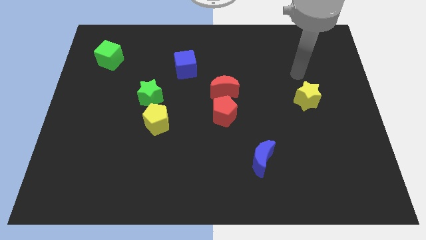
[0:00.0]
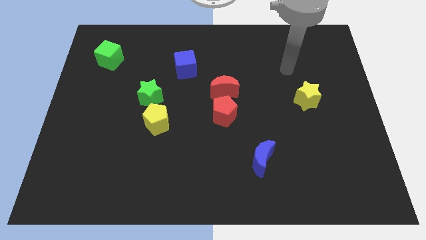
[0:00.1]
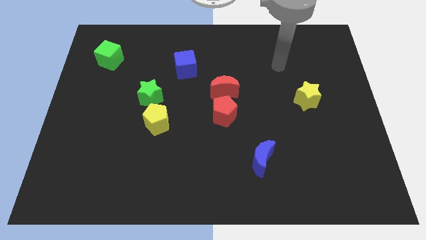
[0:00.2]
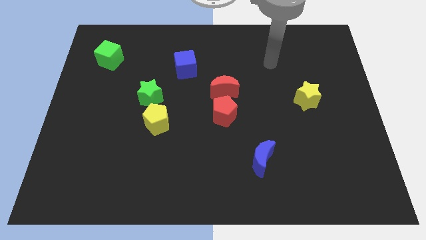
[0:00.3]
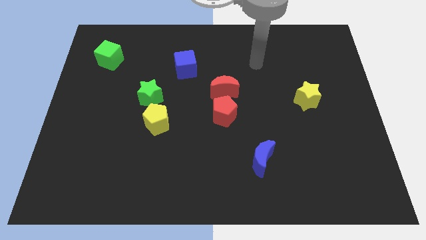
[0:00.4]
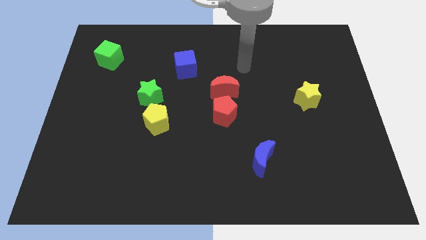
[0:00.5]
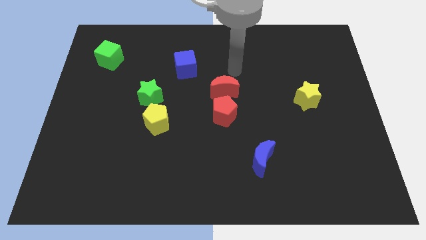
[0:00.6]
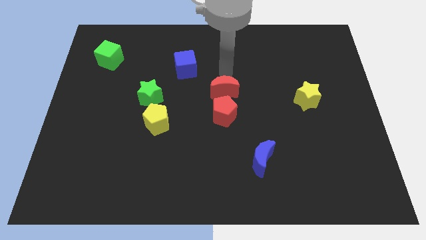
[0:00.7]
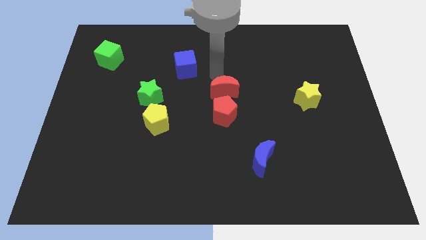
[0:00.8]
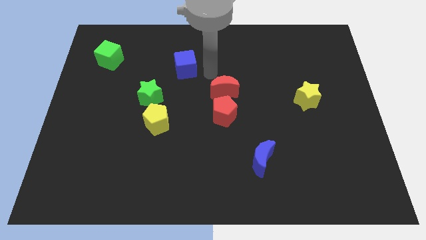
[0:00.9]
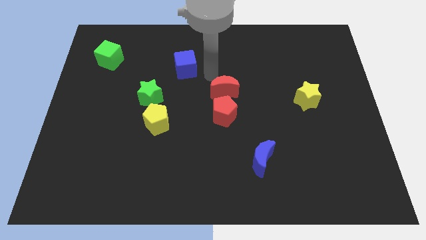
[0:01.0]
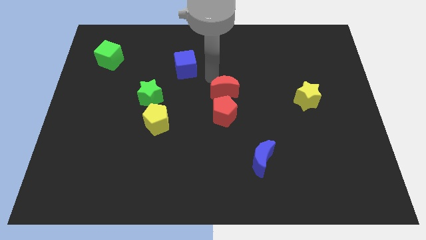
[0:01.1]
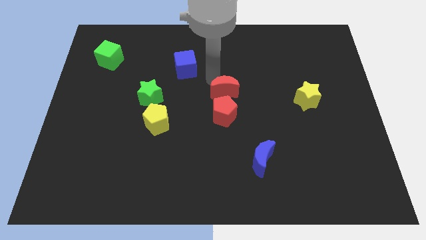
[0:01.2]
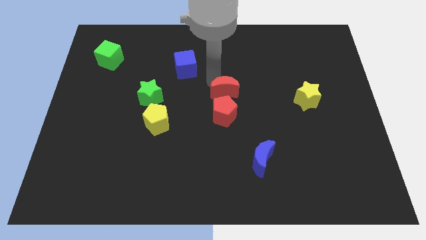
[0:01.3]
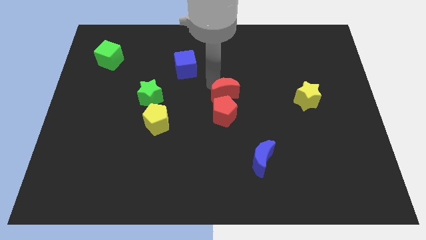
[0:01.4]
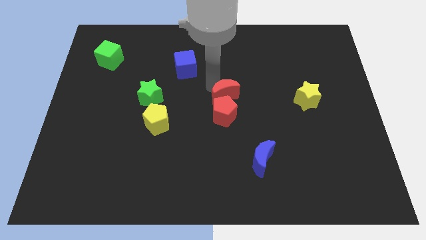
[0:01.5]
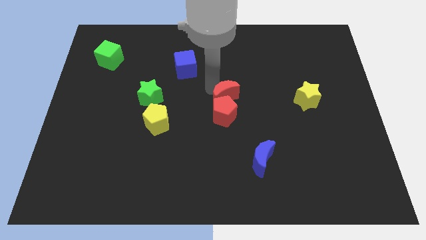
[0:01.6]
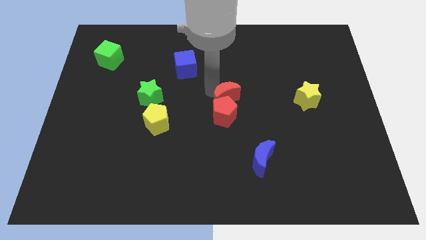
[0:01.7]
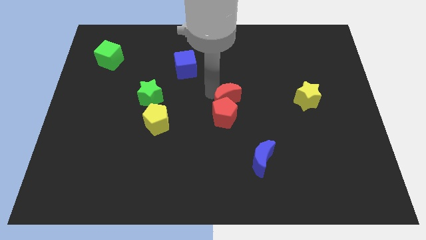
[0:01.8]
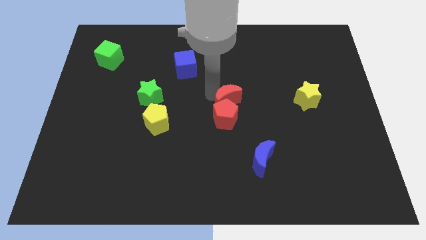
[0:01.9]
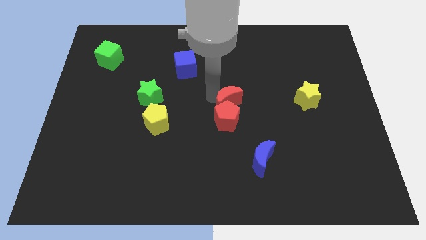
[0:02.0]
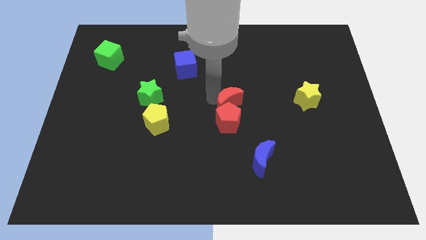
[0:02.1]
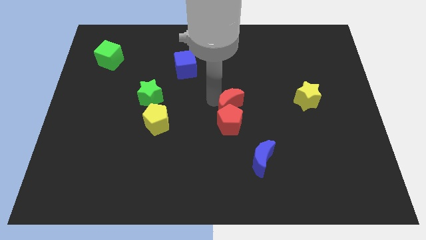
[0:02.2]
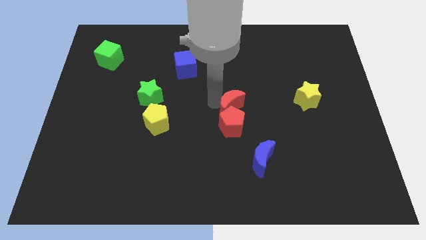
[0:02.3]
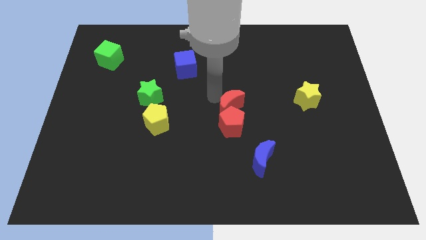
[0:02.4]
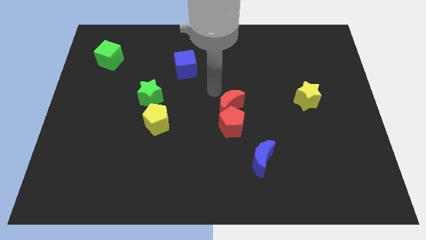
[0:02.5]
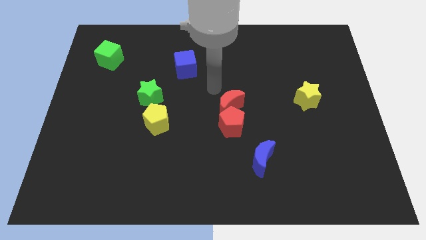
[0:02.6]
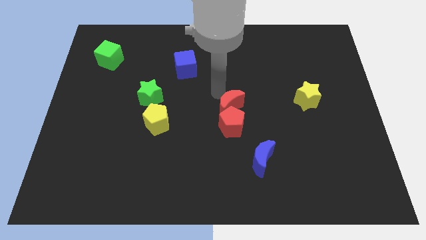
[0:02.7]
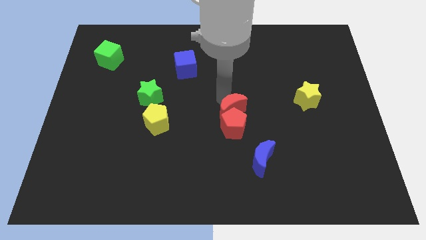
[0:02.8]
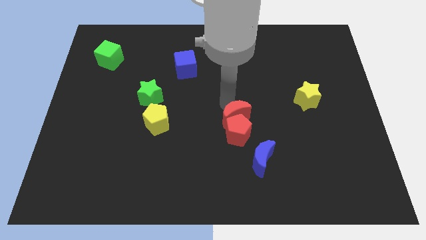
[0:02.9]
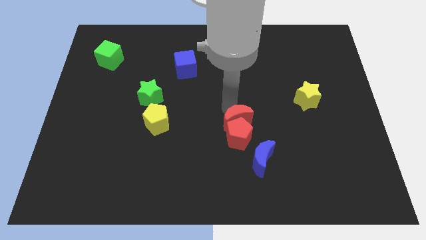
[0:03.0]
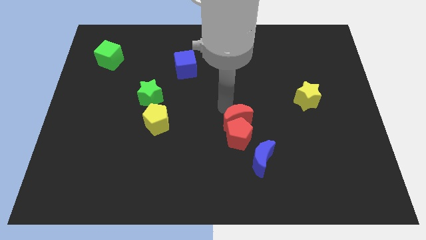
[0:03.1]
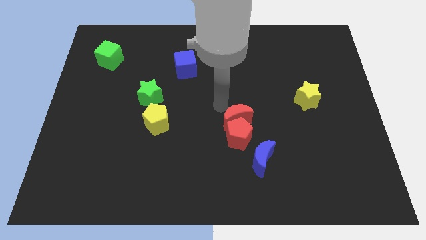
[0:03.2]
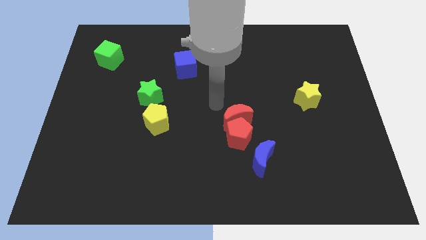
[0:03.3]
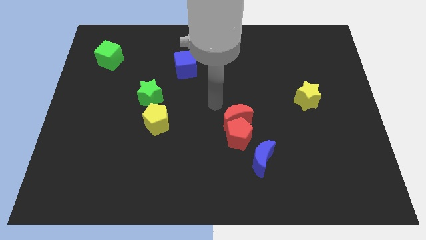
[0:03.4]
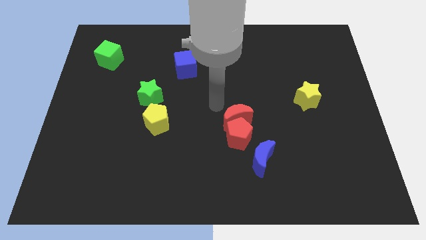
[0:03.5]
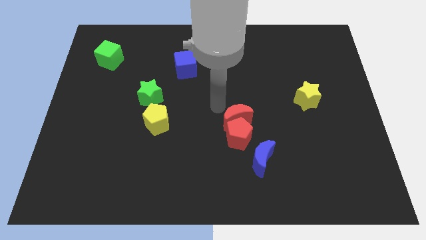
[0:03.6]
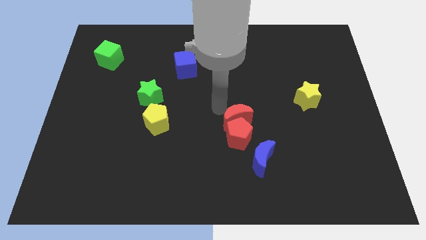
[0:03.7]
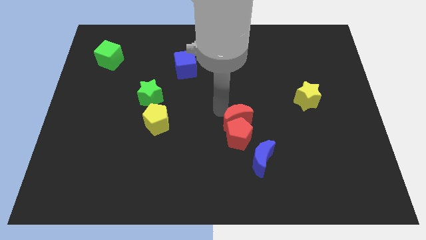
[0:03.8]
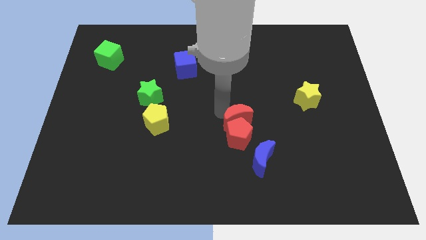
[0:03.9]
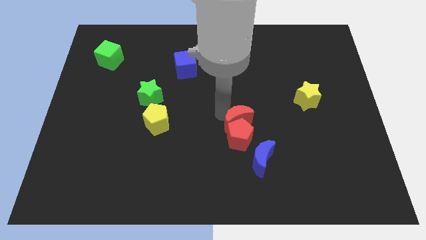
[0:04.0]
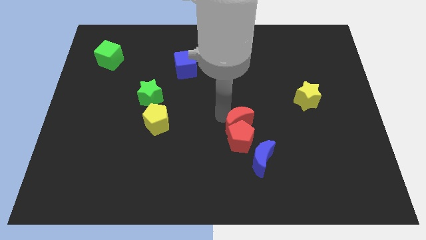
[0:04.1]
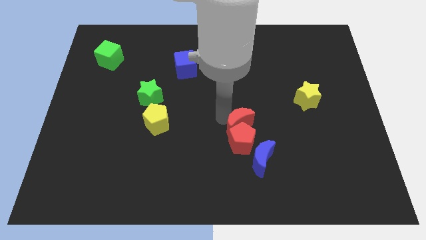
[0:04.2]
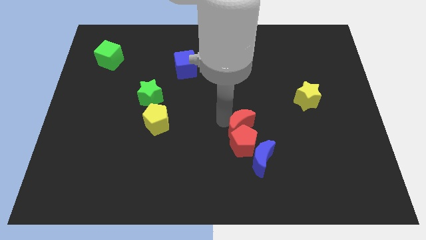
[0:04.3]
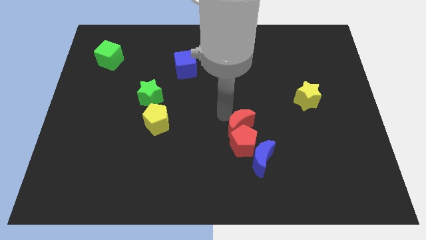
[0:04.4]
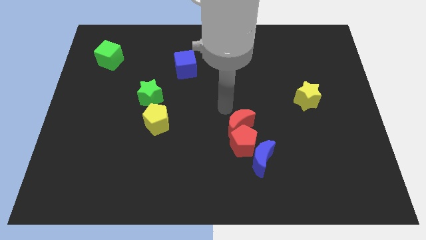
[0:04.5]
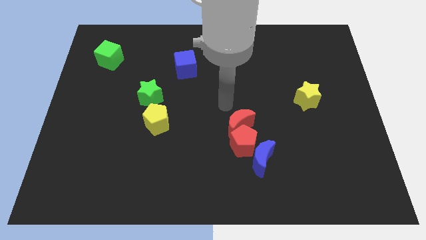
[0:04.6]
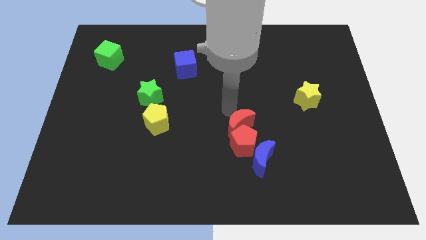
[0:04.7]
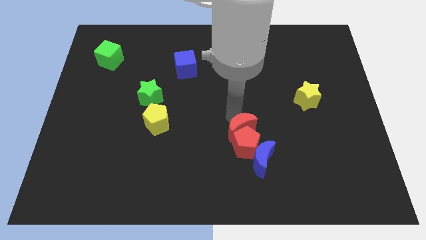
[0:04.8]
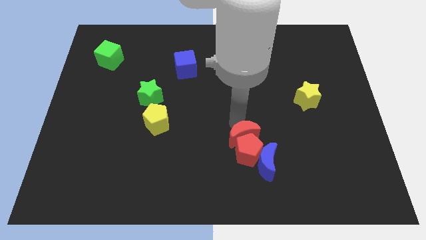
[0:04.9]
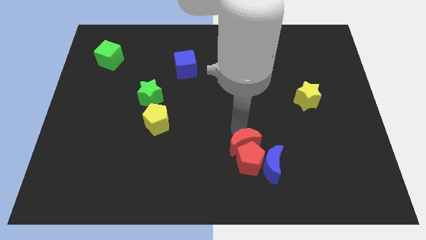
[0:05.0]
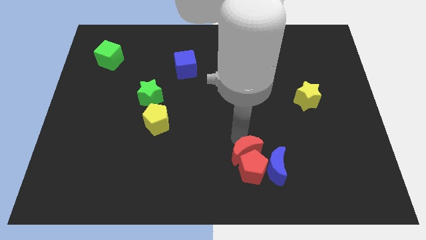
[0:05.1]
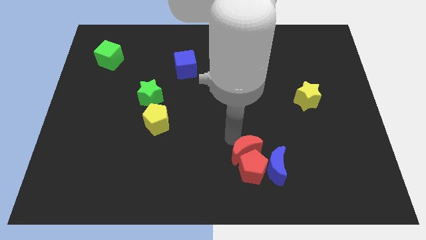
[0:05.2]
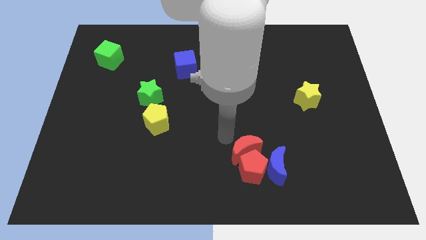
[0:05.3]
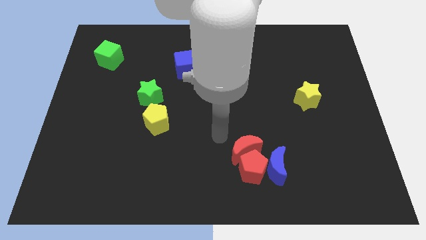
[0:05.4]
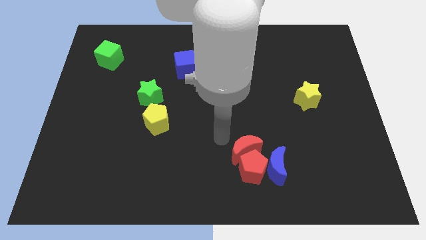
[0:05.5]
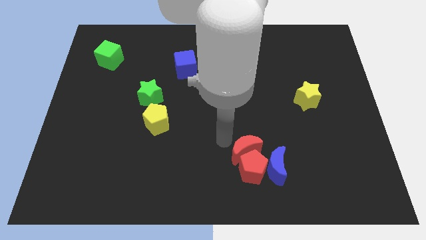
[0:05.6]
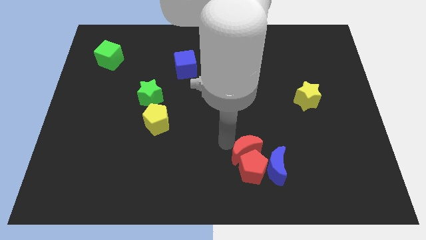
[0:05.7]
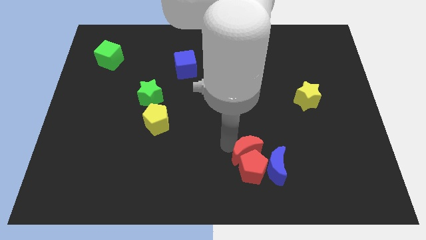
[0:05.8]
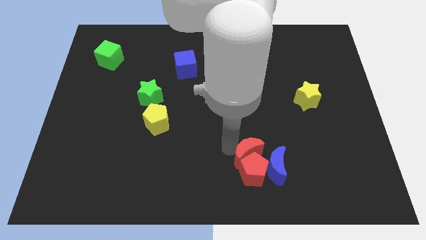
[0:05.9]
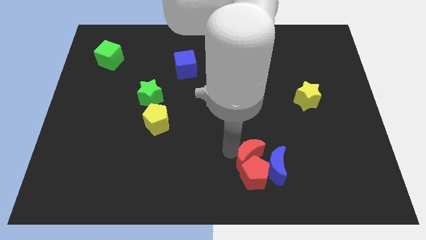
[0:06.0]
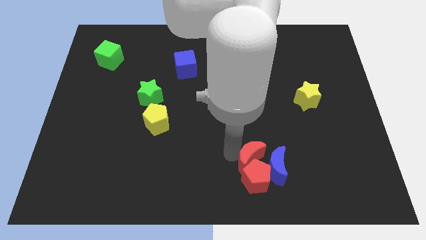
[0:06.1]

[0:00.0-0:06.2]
put the red moon towards the blue moon
